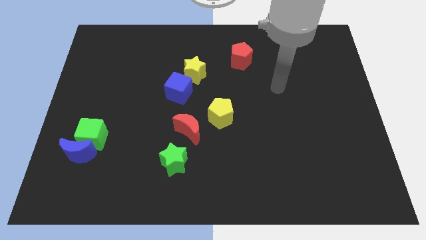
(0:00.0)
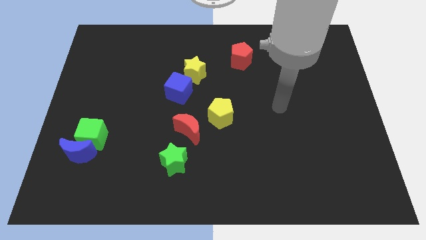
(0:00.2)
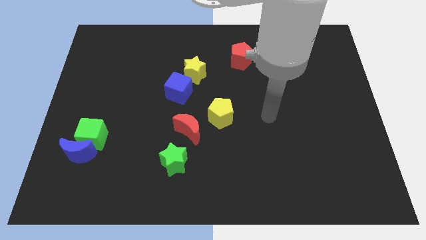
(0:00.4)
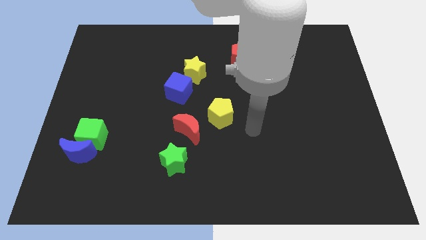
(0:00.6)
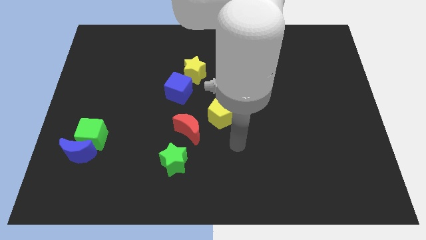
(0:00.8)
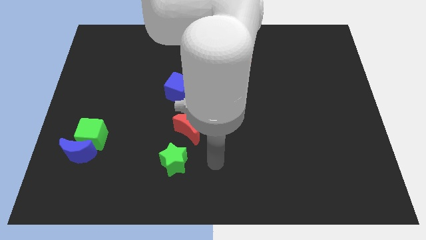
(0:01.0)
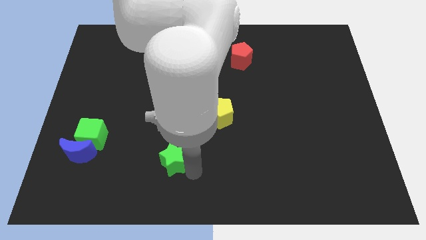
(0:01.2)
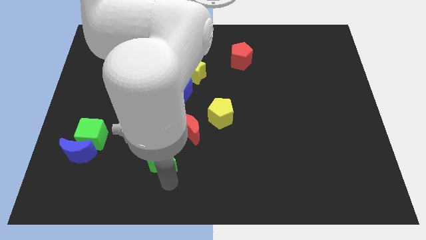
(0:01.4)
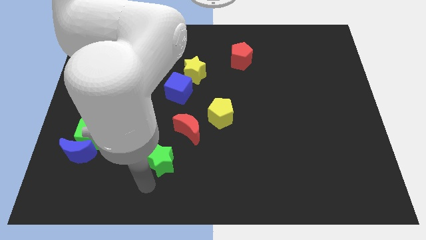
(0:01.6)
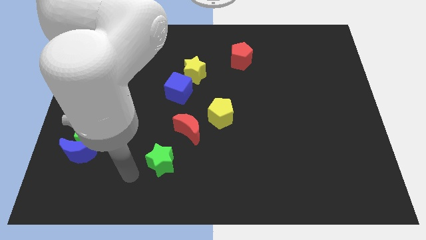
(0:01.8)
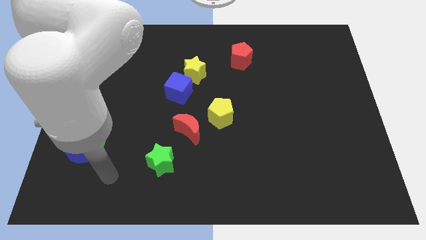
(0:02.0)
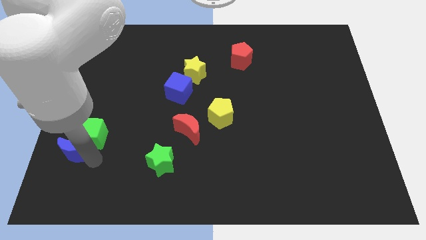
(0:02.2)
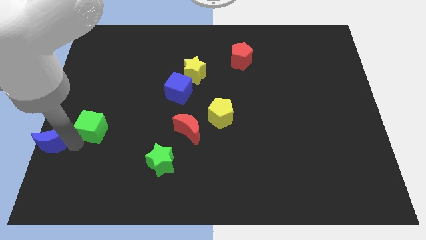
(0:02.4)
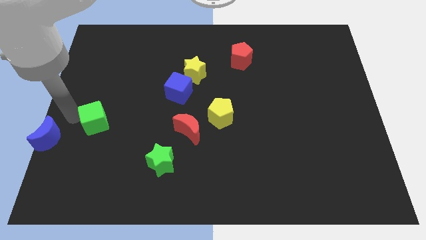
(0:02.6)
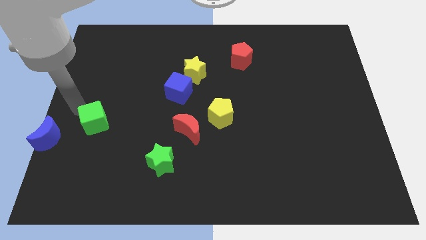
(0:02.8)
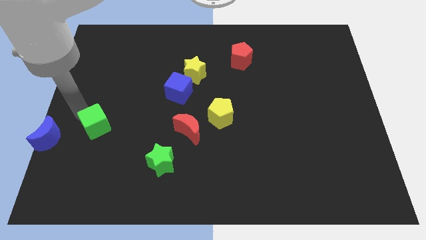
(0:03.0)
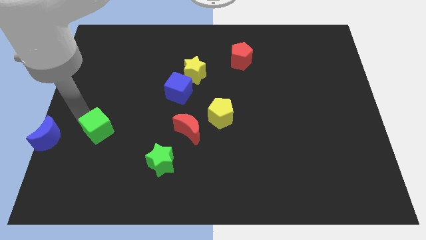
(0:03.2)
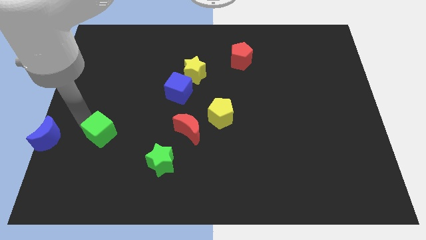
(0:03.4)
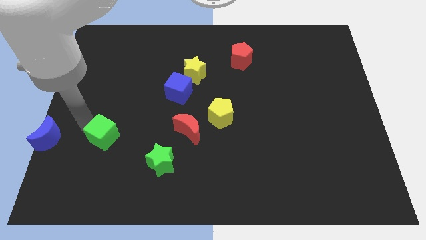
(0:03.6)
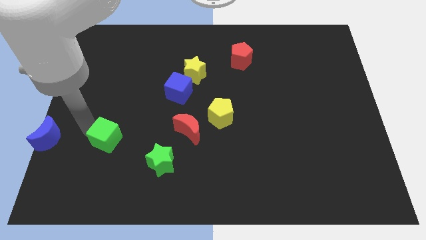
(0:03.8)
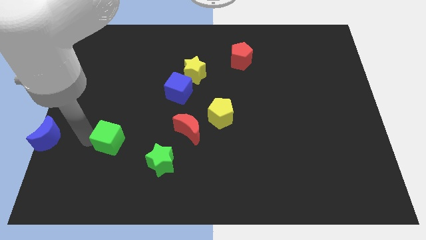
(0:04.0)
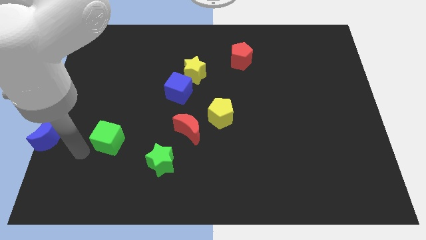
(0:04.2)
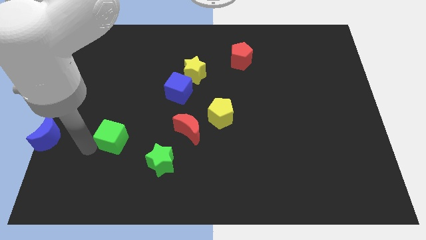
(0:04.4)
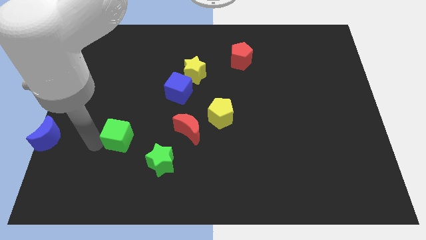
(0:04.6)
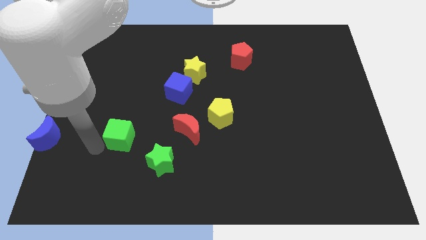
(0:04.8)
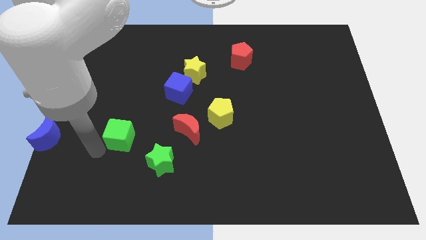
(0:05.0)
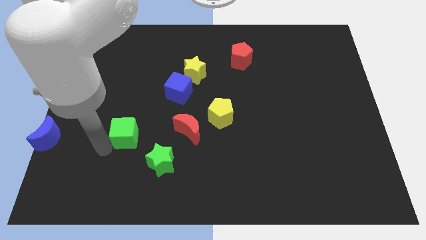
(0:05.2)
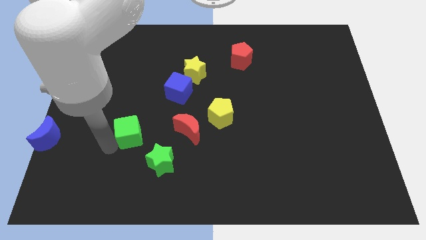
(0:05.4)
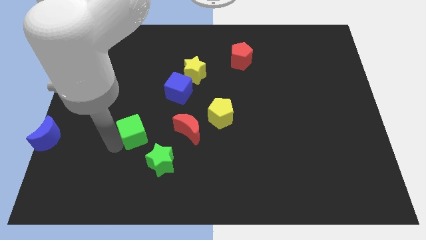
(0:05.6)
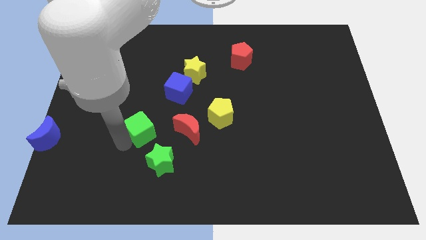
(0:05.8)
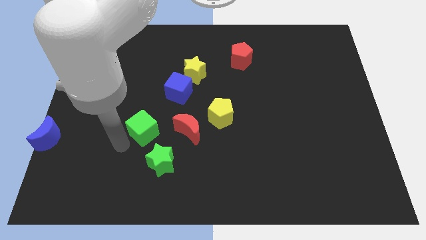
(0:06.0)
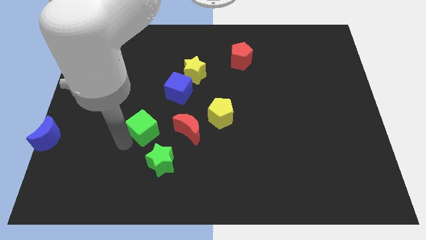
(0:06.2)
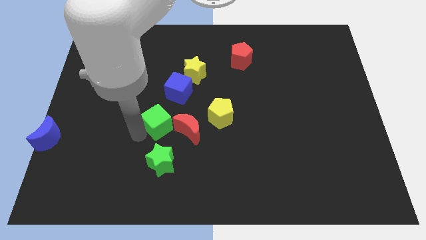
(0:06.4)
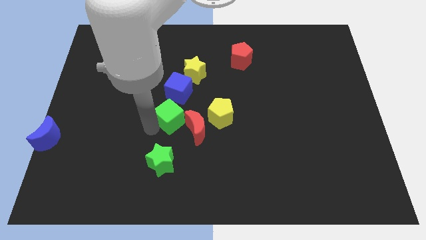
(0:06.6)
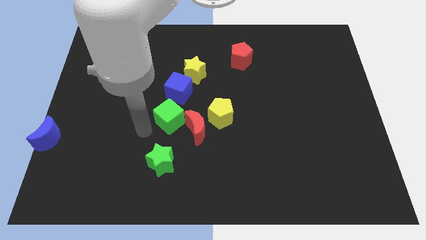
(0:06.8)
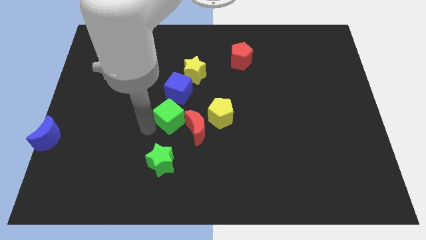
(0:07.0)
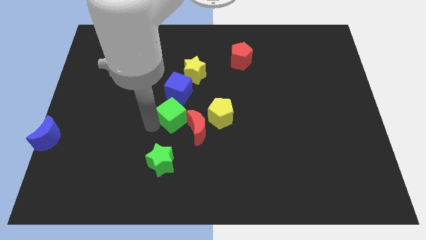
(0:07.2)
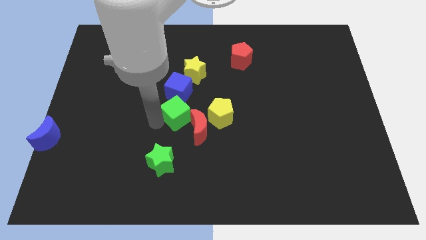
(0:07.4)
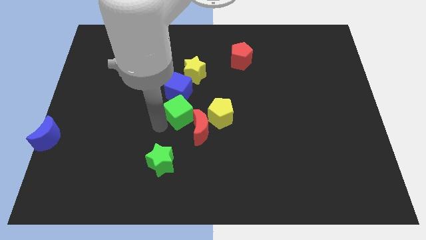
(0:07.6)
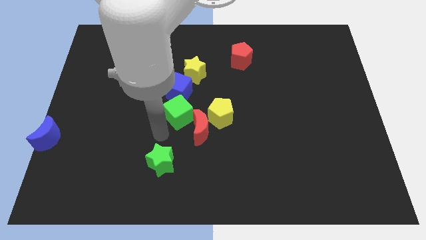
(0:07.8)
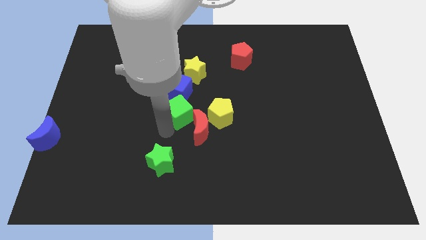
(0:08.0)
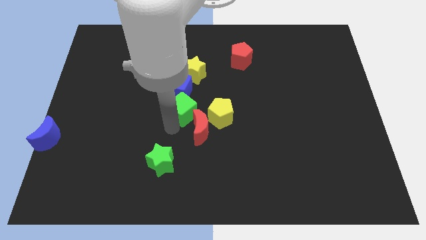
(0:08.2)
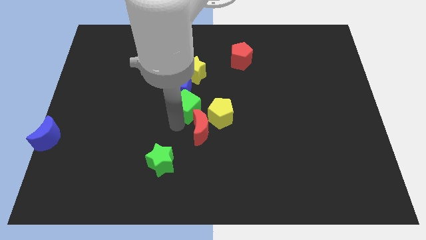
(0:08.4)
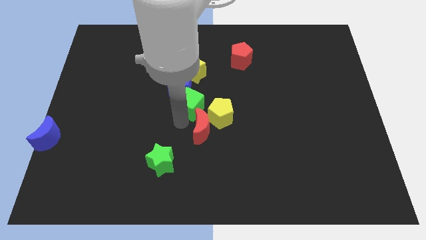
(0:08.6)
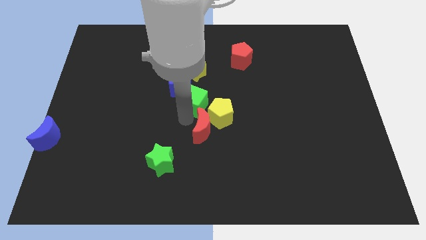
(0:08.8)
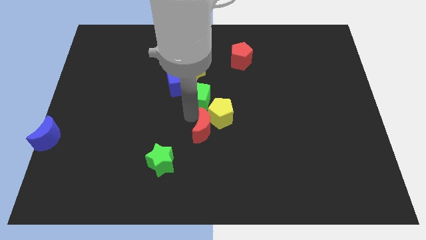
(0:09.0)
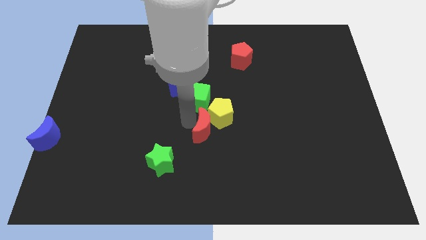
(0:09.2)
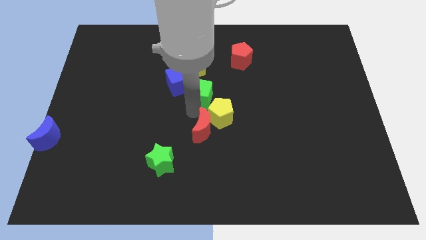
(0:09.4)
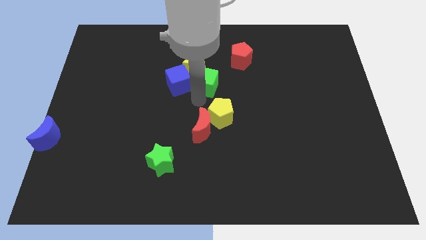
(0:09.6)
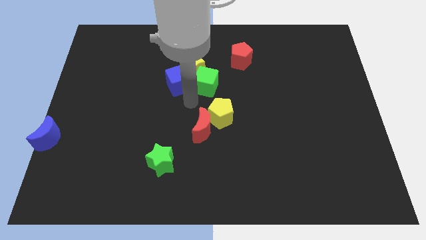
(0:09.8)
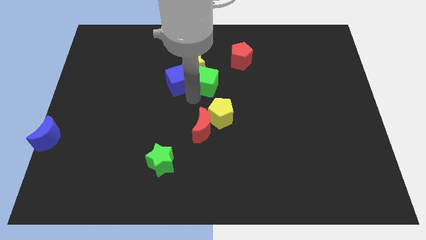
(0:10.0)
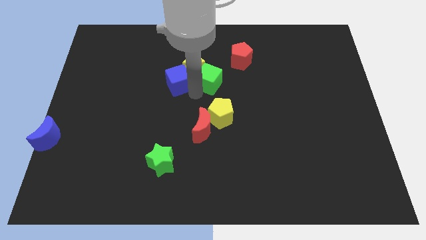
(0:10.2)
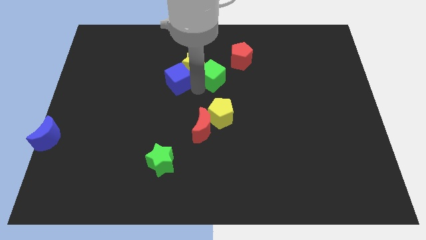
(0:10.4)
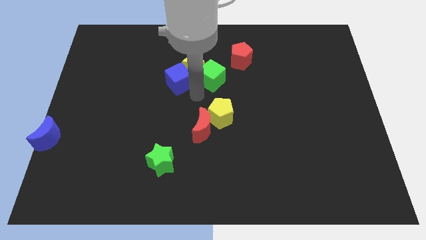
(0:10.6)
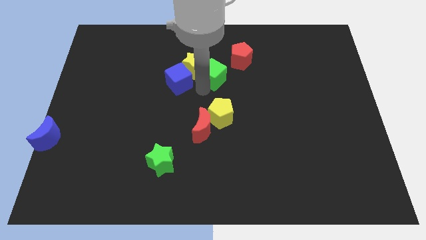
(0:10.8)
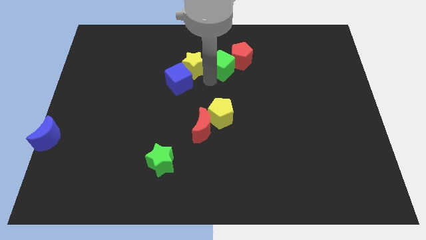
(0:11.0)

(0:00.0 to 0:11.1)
move the green cube close to the red pentagon

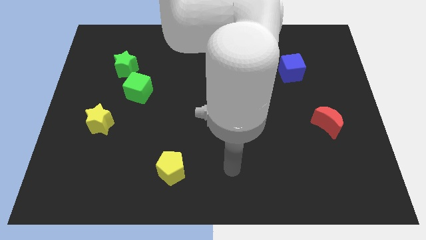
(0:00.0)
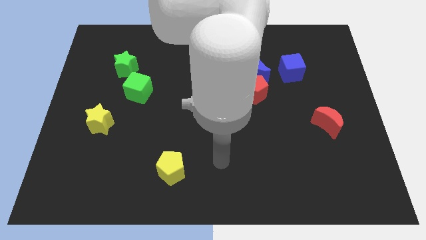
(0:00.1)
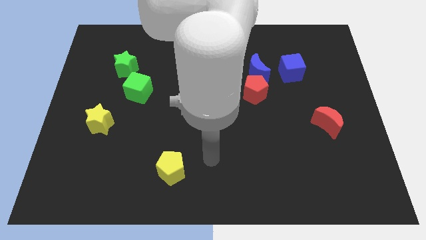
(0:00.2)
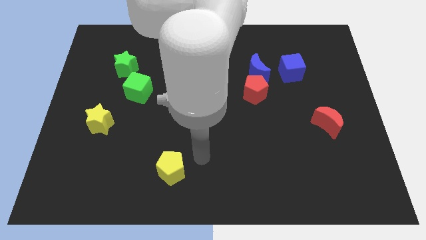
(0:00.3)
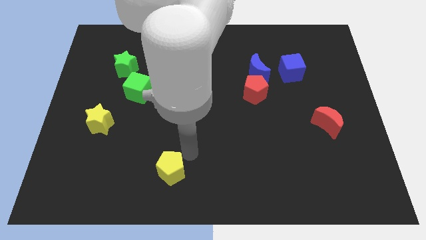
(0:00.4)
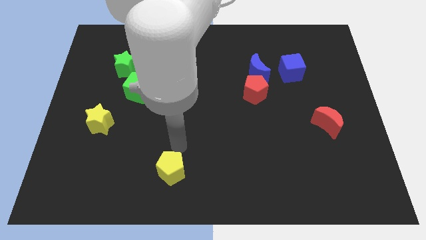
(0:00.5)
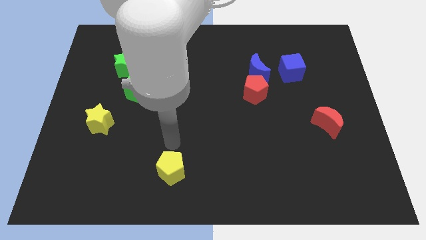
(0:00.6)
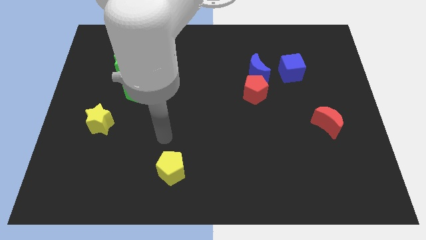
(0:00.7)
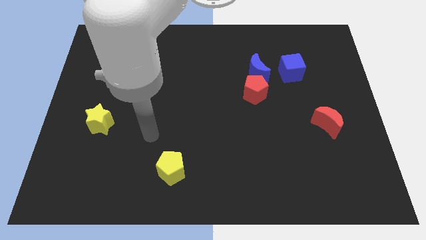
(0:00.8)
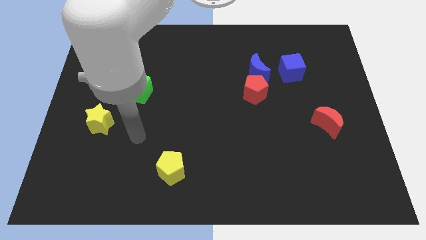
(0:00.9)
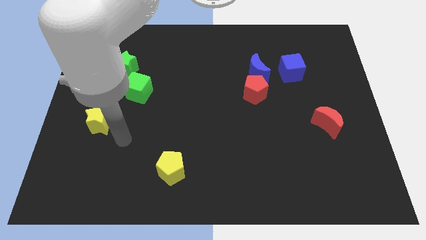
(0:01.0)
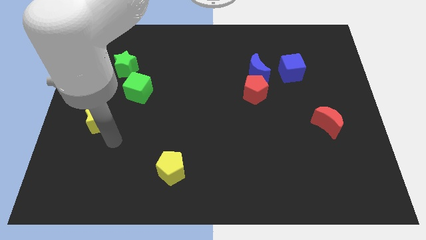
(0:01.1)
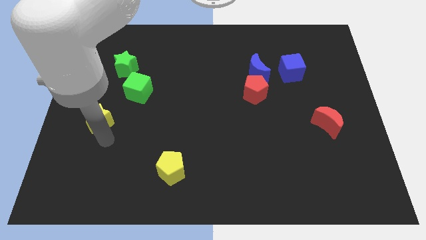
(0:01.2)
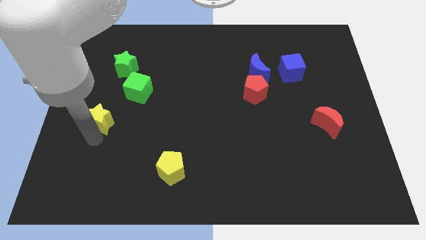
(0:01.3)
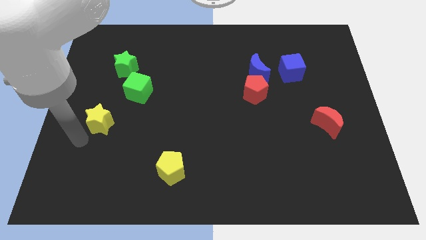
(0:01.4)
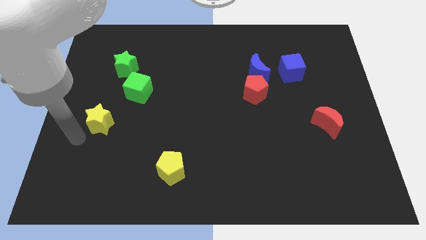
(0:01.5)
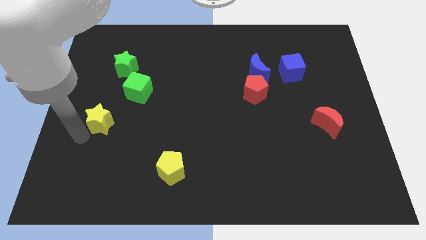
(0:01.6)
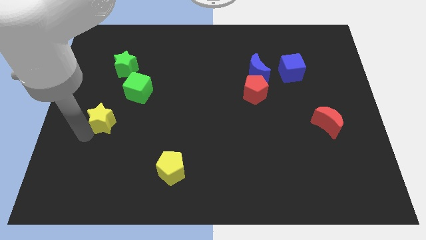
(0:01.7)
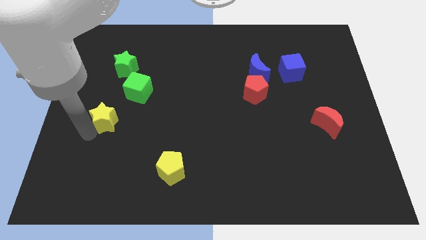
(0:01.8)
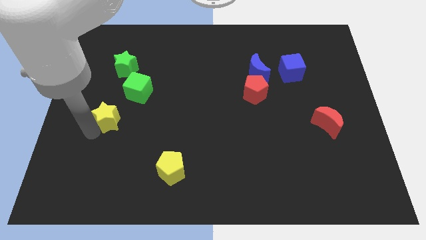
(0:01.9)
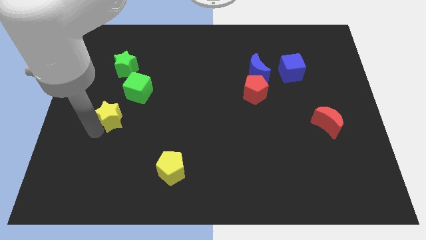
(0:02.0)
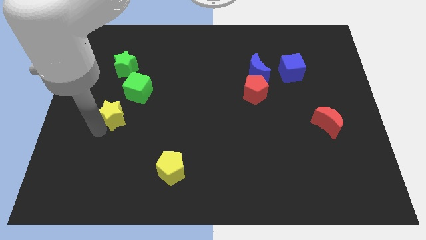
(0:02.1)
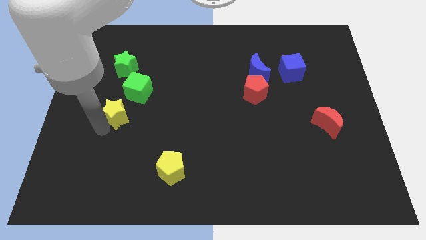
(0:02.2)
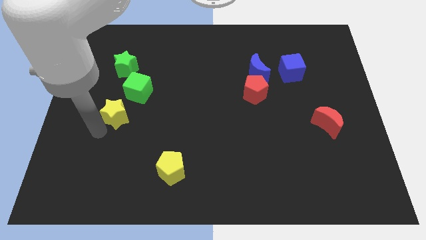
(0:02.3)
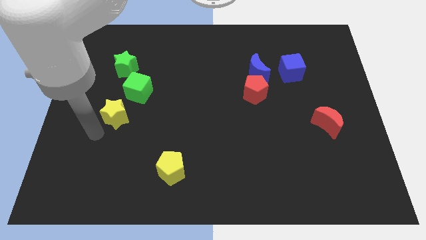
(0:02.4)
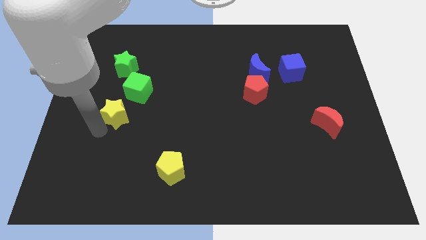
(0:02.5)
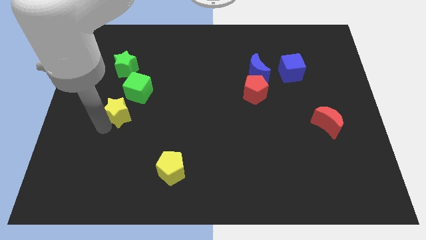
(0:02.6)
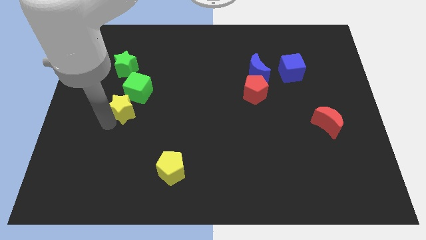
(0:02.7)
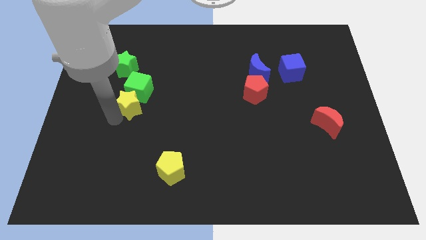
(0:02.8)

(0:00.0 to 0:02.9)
move the yellow star close to the green cube
